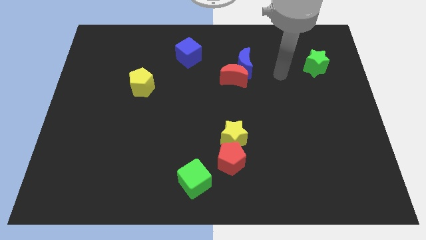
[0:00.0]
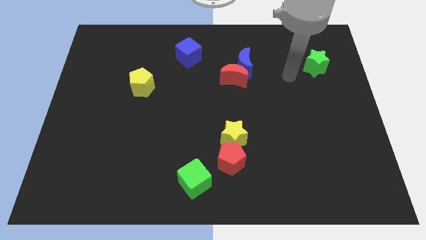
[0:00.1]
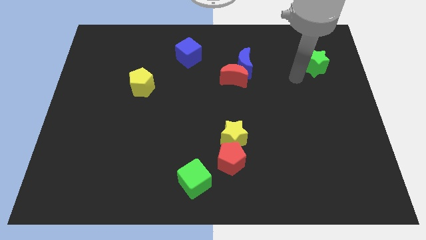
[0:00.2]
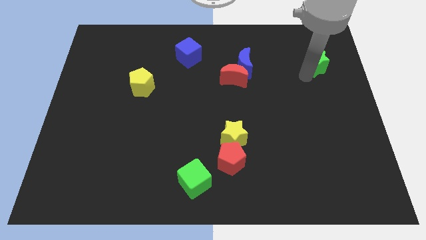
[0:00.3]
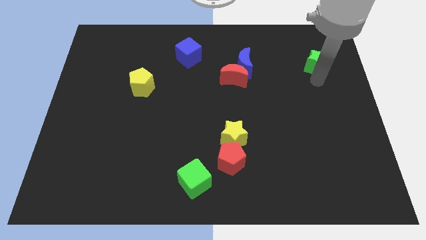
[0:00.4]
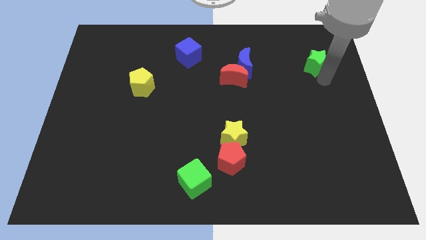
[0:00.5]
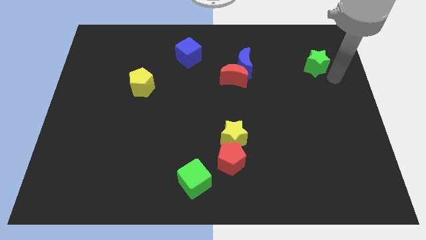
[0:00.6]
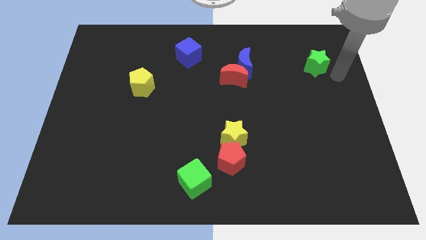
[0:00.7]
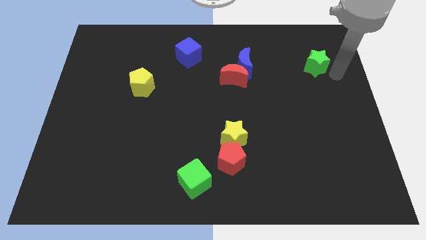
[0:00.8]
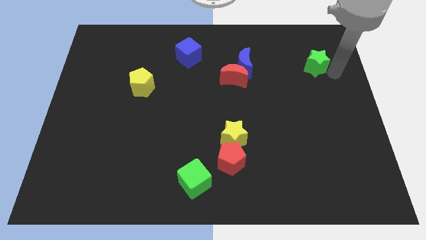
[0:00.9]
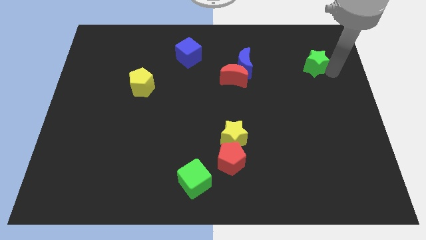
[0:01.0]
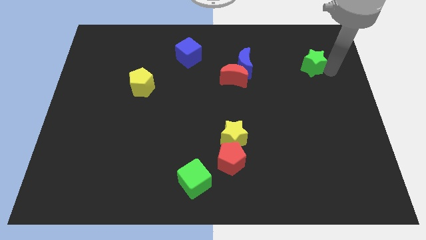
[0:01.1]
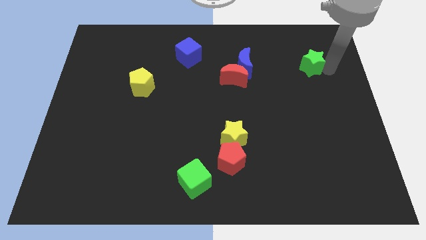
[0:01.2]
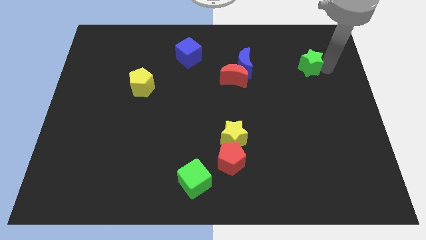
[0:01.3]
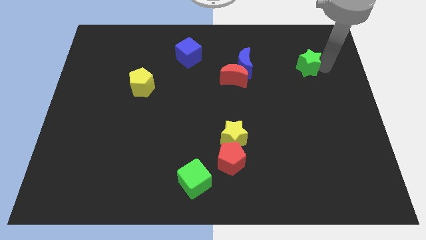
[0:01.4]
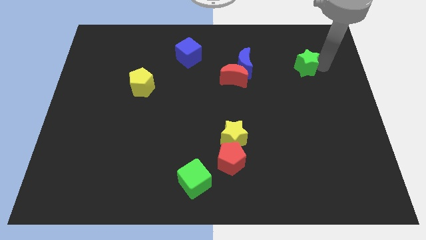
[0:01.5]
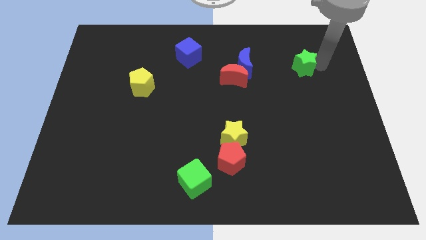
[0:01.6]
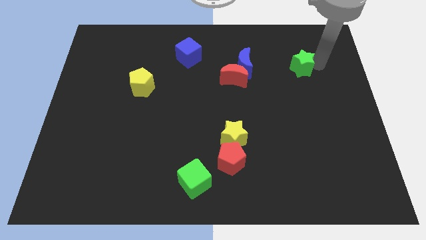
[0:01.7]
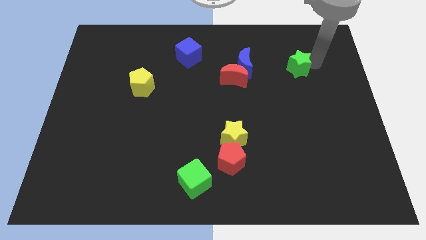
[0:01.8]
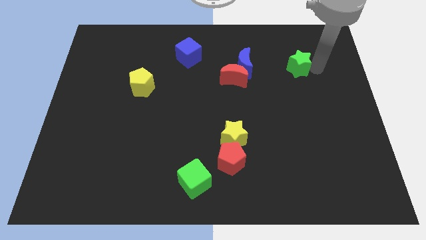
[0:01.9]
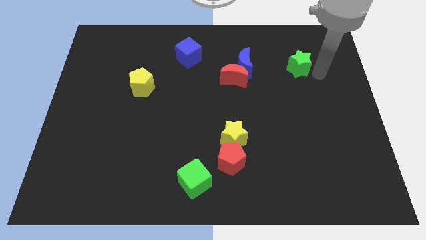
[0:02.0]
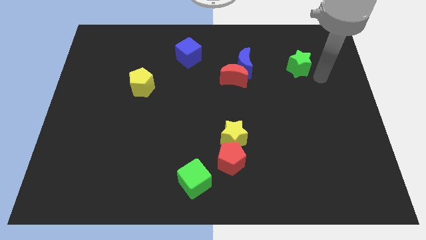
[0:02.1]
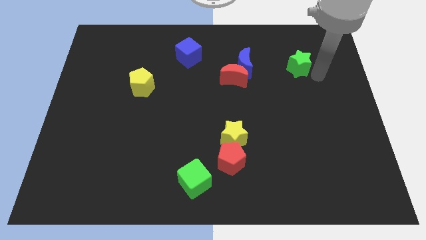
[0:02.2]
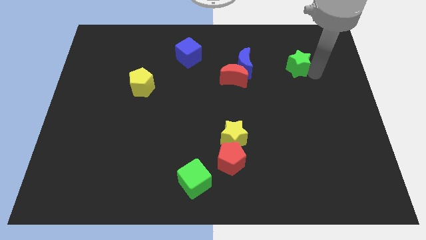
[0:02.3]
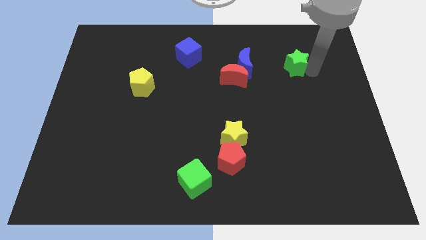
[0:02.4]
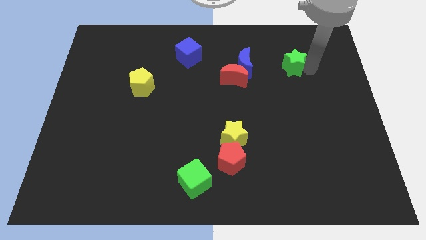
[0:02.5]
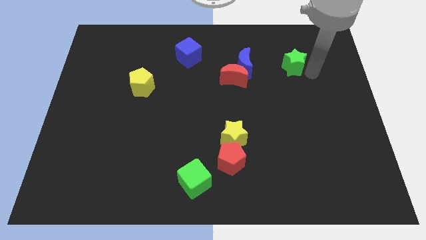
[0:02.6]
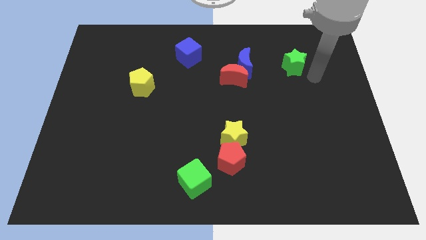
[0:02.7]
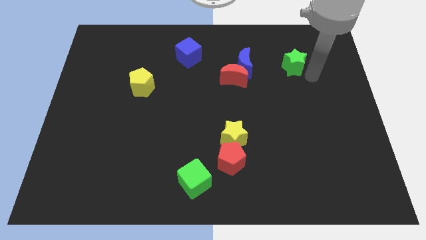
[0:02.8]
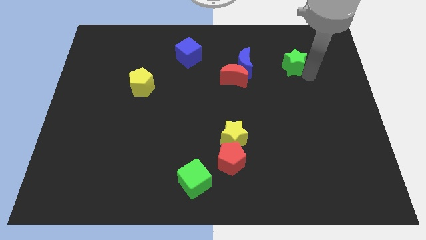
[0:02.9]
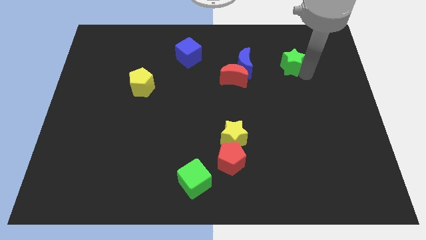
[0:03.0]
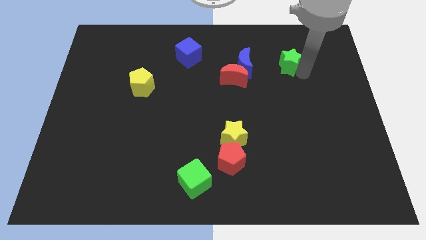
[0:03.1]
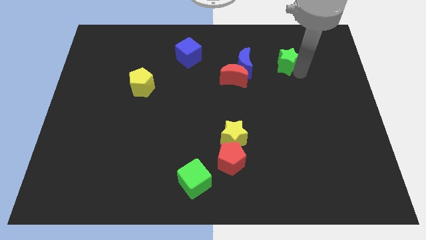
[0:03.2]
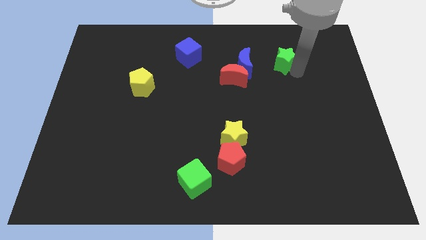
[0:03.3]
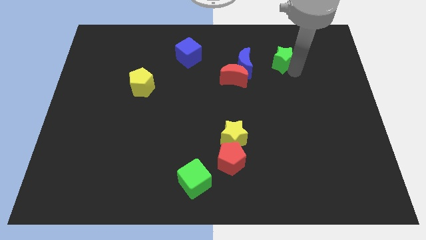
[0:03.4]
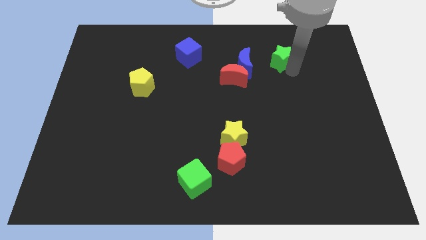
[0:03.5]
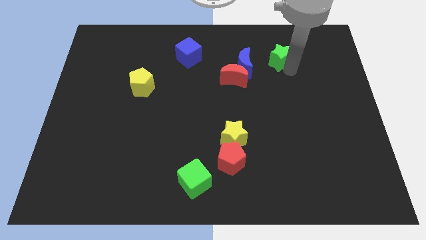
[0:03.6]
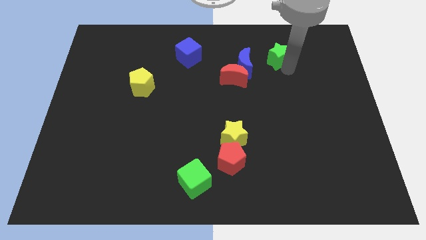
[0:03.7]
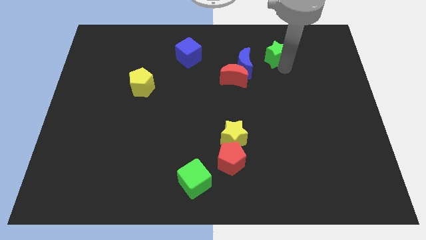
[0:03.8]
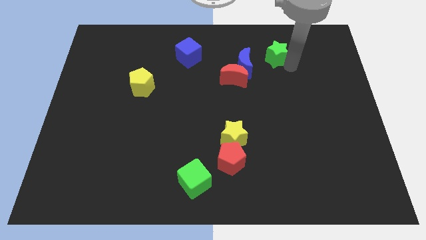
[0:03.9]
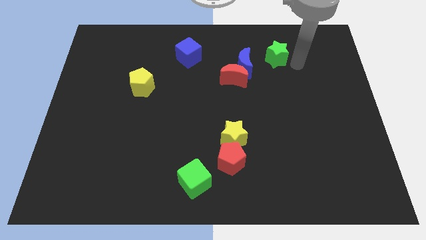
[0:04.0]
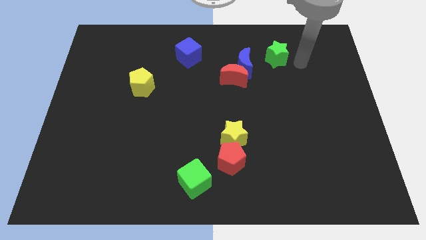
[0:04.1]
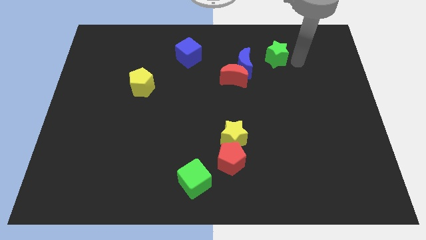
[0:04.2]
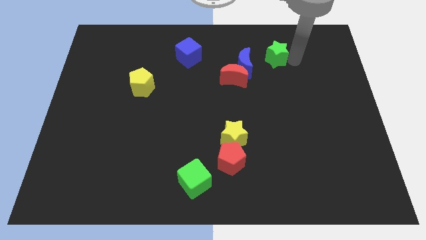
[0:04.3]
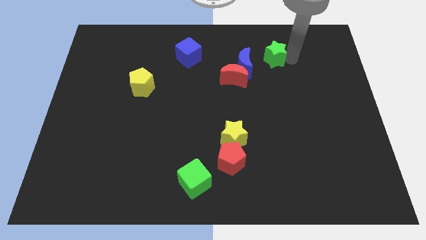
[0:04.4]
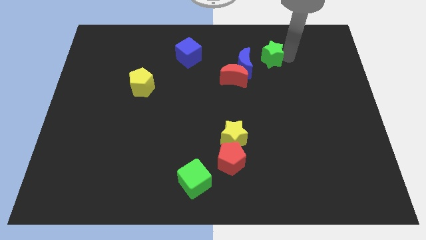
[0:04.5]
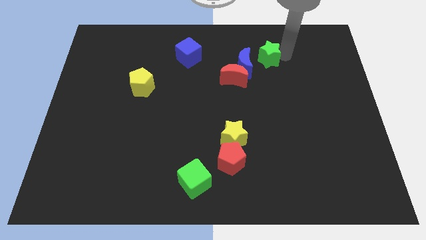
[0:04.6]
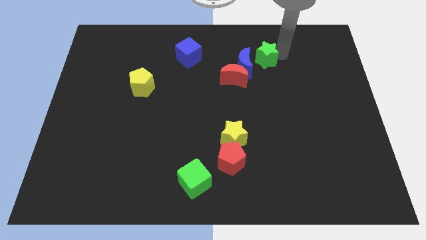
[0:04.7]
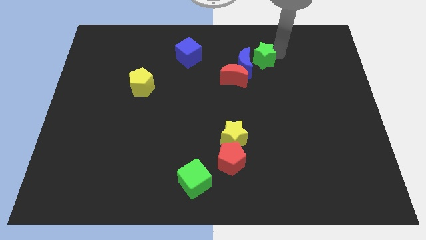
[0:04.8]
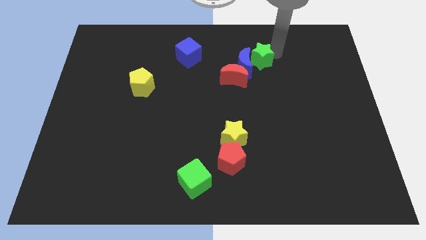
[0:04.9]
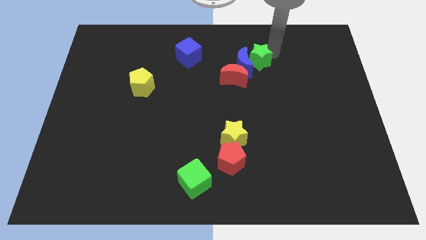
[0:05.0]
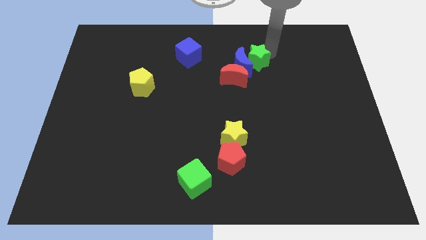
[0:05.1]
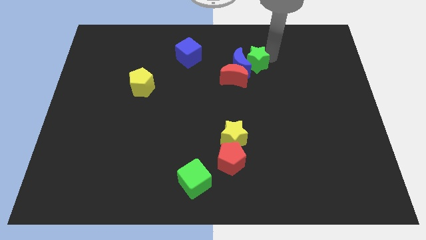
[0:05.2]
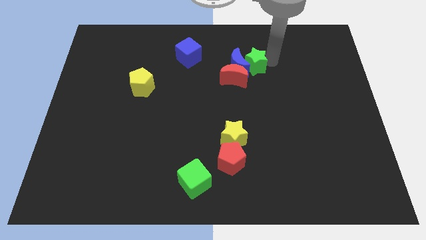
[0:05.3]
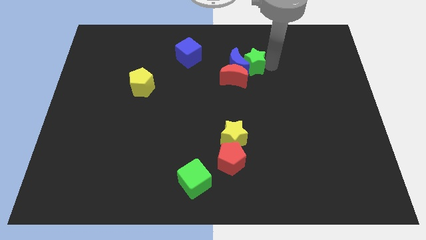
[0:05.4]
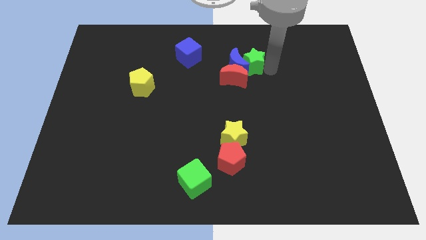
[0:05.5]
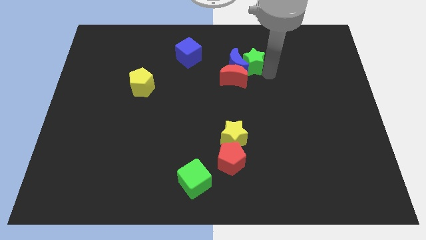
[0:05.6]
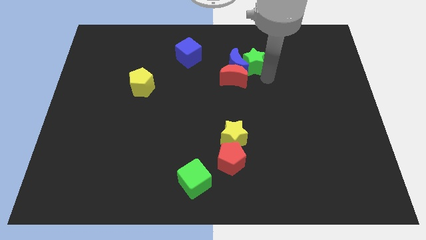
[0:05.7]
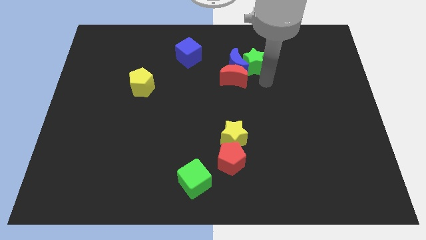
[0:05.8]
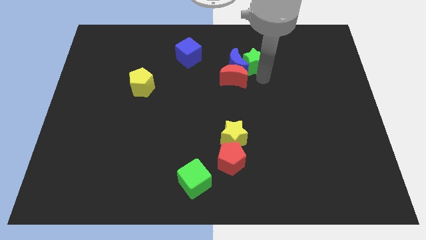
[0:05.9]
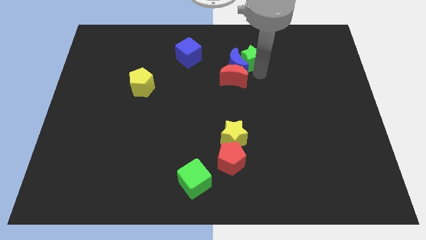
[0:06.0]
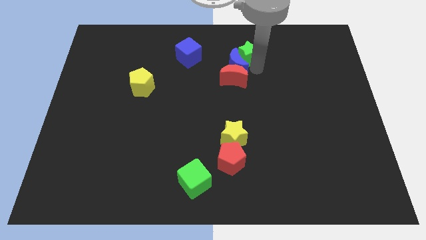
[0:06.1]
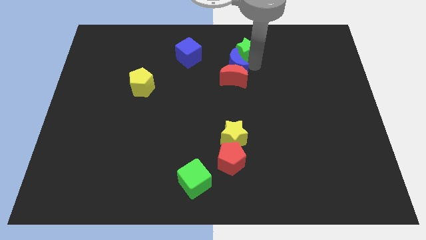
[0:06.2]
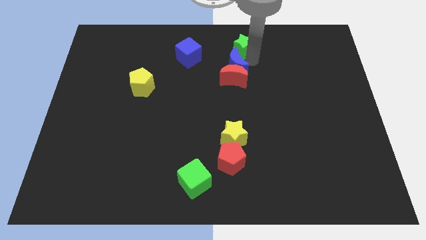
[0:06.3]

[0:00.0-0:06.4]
put the green star to the top
